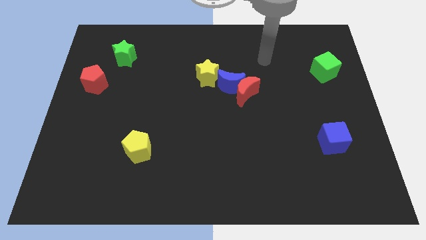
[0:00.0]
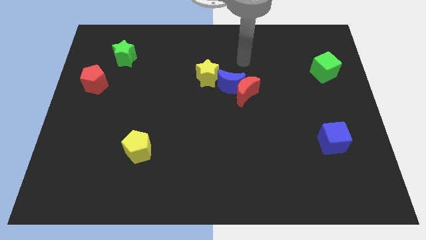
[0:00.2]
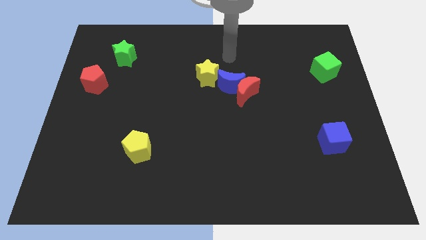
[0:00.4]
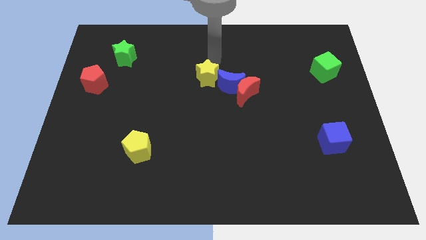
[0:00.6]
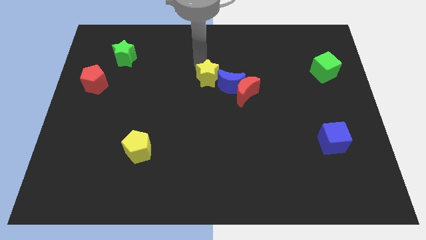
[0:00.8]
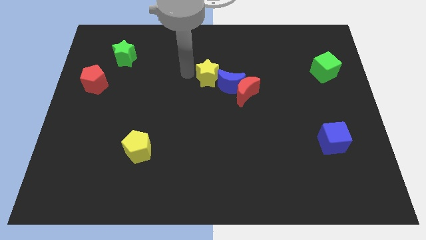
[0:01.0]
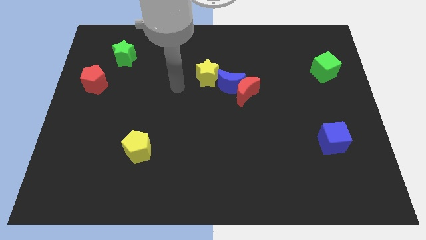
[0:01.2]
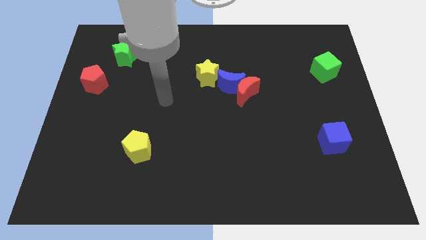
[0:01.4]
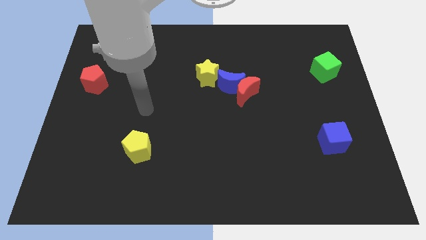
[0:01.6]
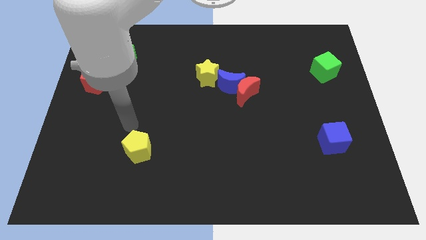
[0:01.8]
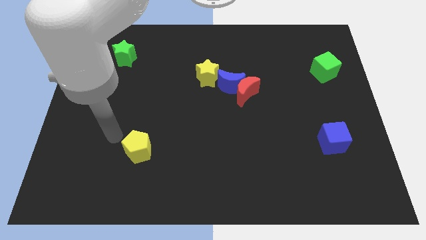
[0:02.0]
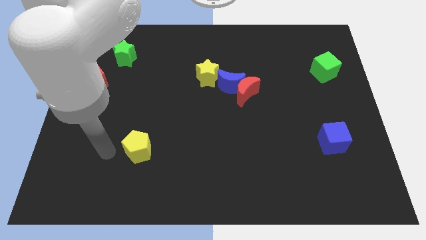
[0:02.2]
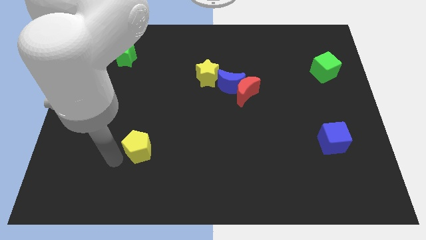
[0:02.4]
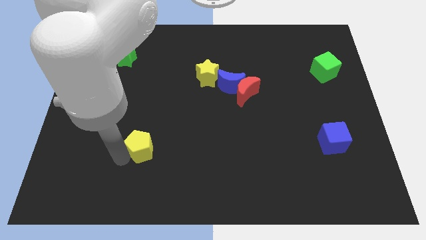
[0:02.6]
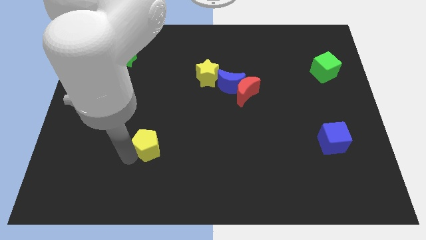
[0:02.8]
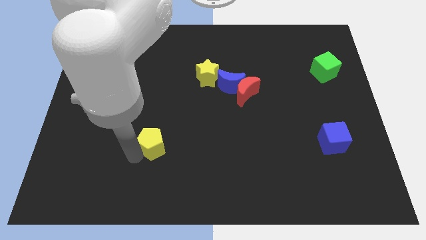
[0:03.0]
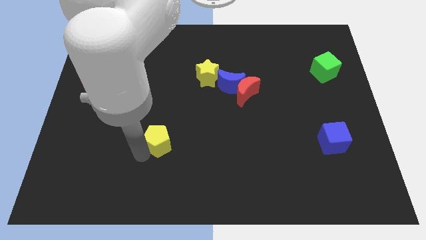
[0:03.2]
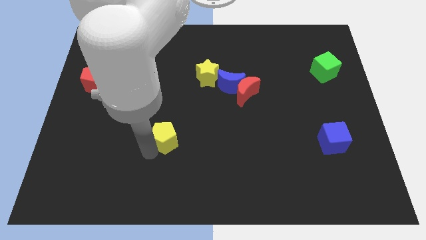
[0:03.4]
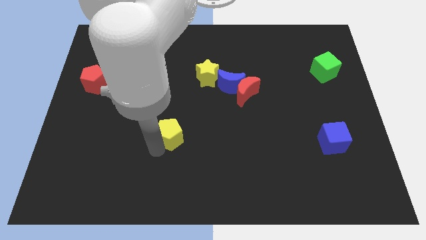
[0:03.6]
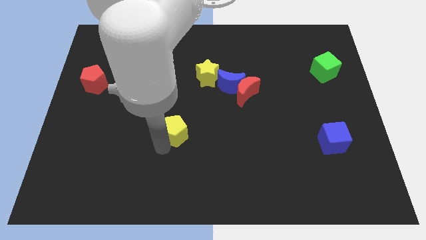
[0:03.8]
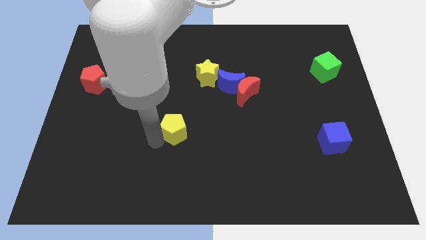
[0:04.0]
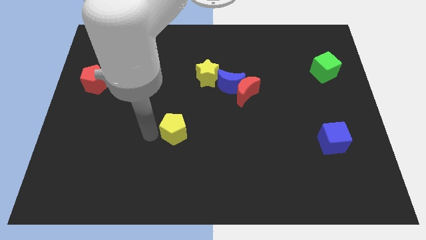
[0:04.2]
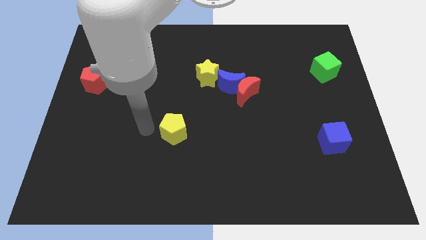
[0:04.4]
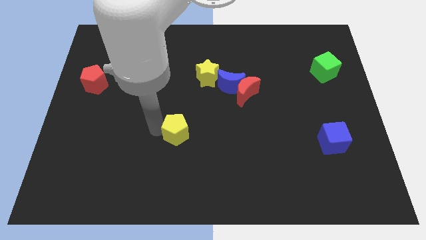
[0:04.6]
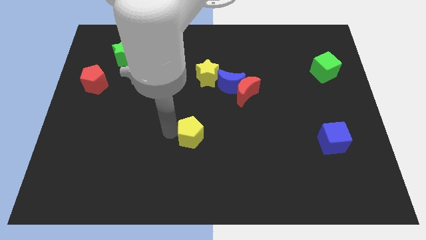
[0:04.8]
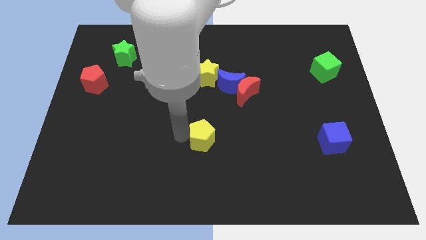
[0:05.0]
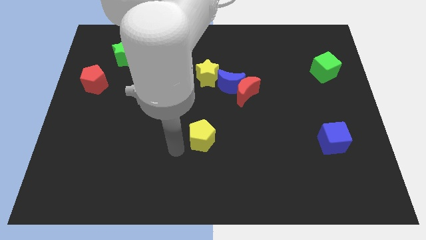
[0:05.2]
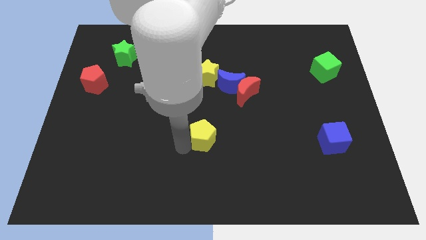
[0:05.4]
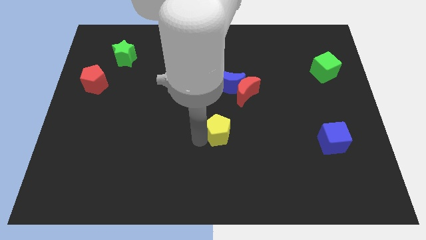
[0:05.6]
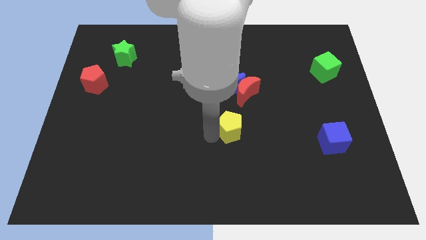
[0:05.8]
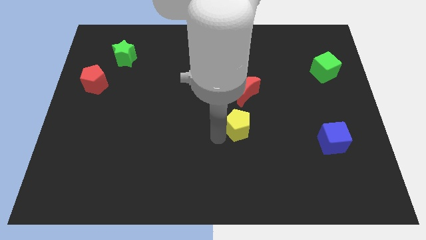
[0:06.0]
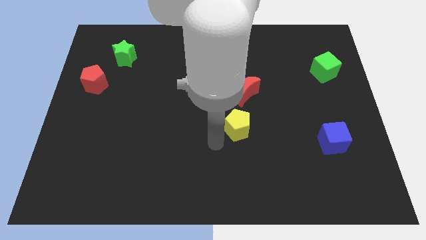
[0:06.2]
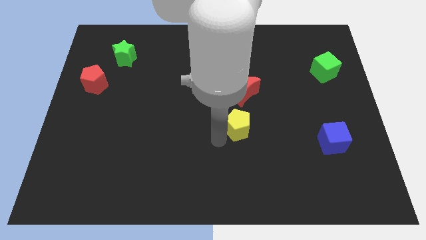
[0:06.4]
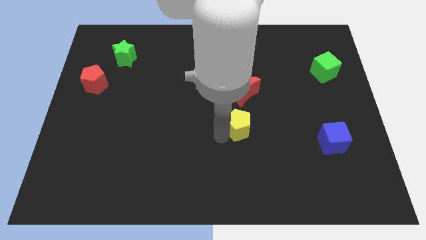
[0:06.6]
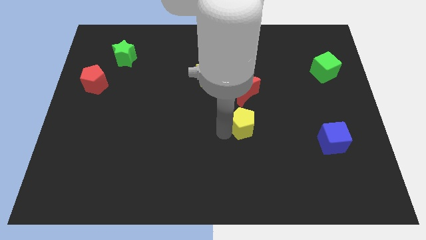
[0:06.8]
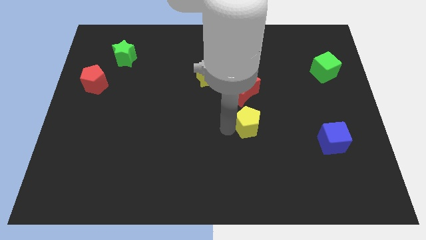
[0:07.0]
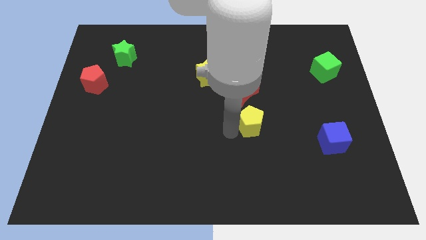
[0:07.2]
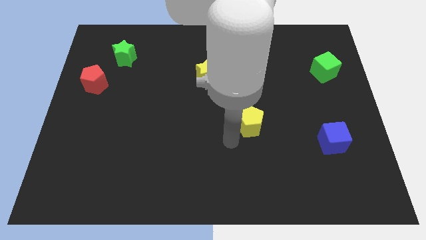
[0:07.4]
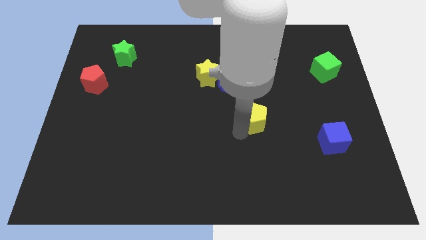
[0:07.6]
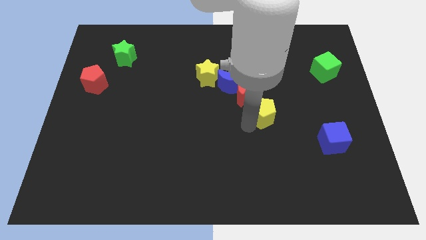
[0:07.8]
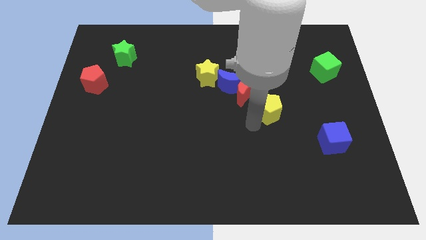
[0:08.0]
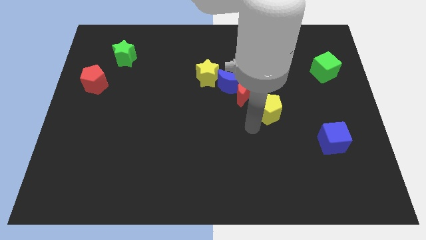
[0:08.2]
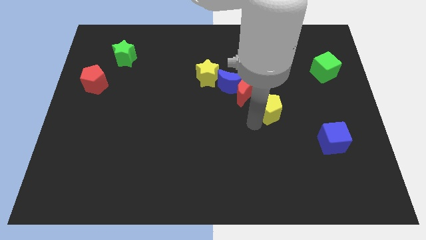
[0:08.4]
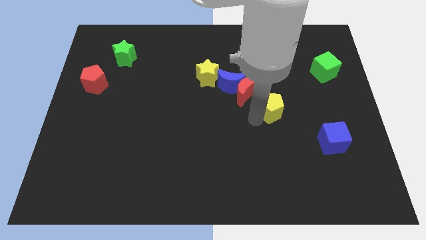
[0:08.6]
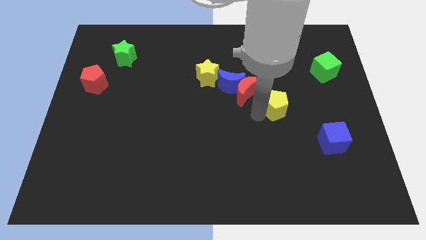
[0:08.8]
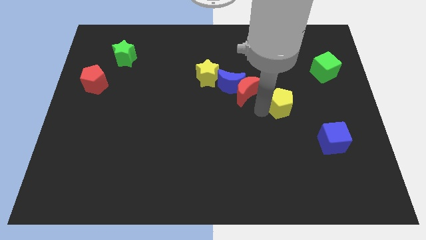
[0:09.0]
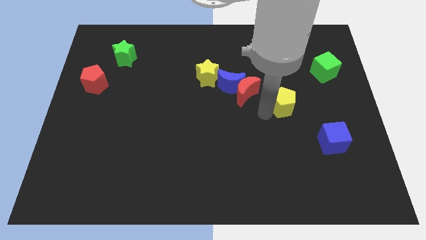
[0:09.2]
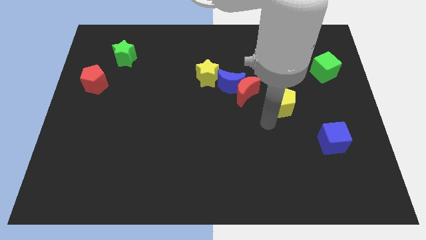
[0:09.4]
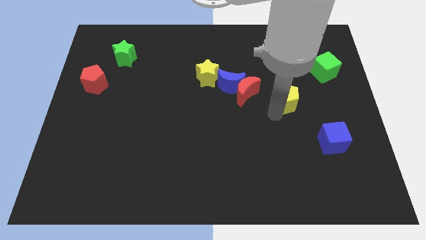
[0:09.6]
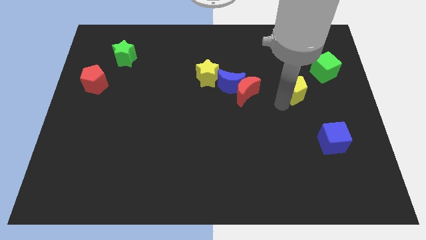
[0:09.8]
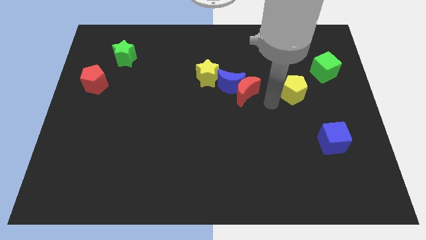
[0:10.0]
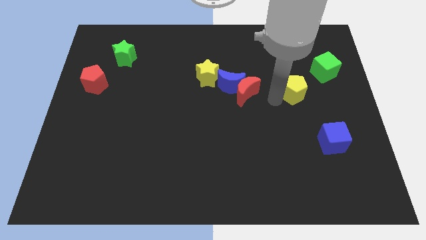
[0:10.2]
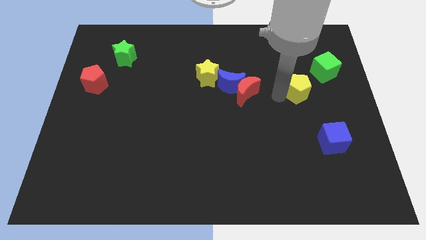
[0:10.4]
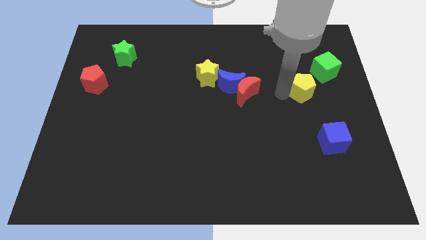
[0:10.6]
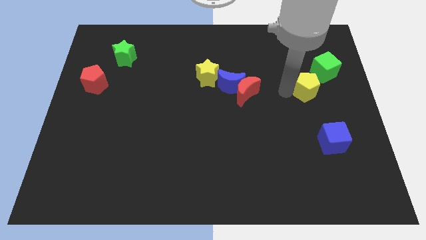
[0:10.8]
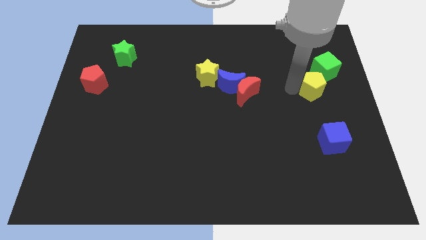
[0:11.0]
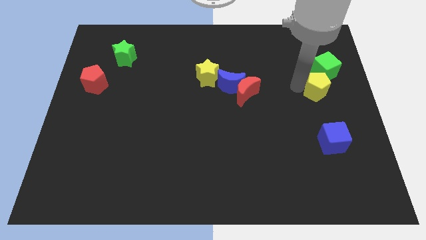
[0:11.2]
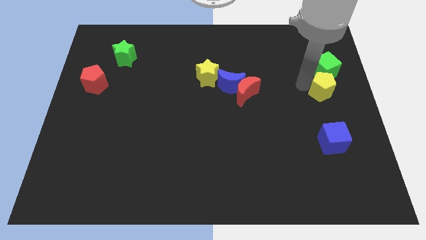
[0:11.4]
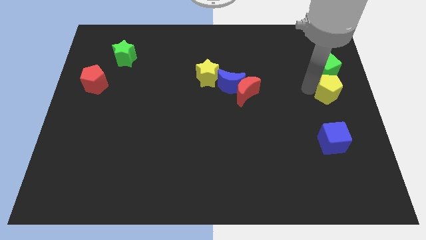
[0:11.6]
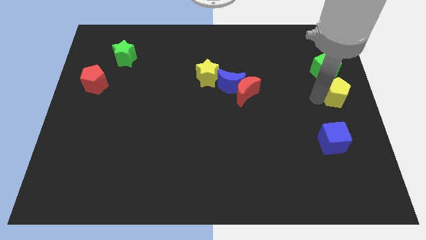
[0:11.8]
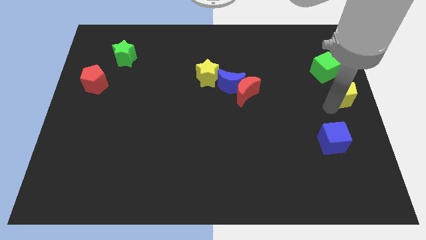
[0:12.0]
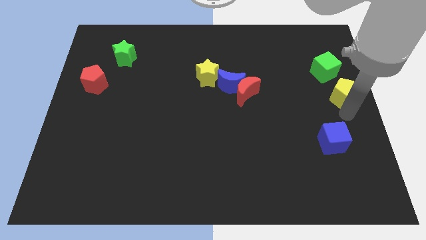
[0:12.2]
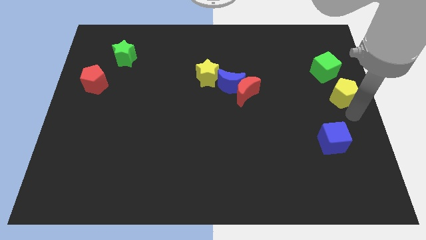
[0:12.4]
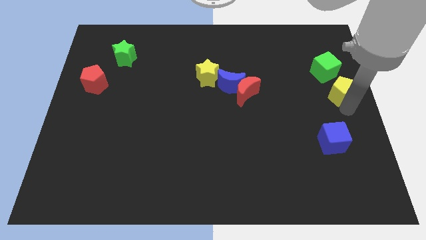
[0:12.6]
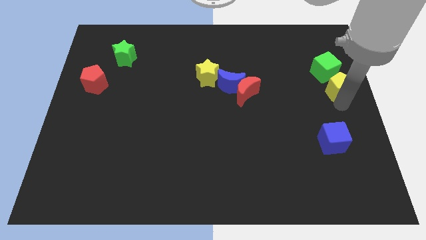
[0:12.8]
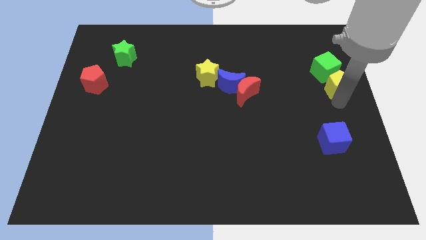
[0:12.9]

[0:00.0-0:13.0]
move the yellow pentagon to the green cube
